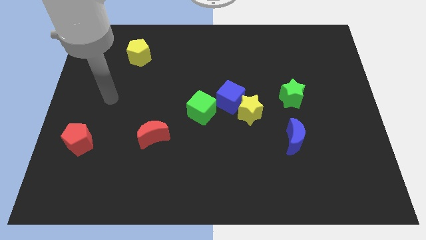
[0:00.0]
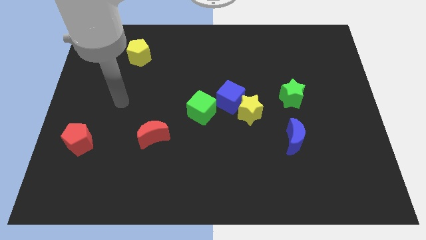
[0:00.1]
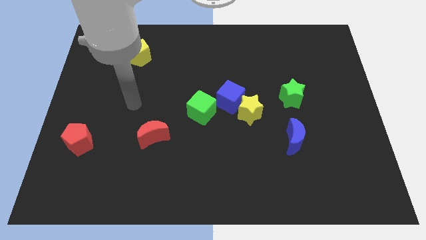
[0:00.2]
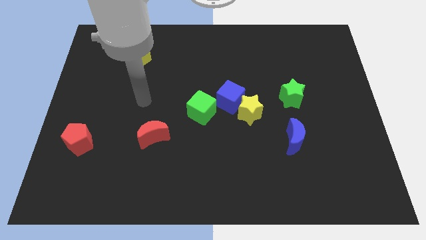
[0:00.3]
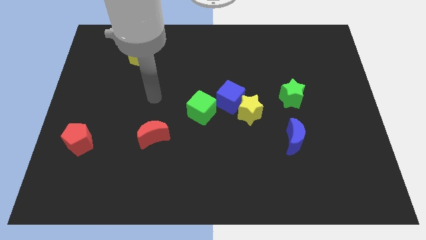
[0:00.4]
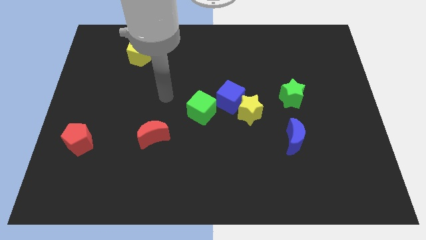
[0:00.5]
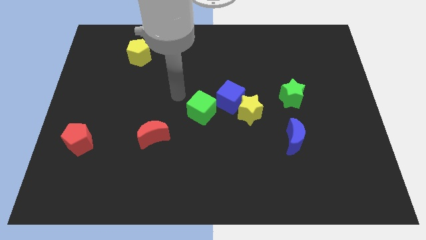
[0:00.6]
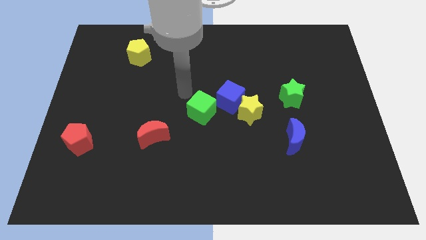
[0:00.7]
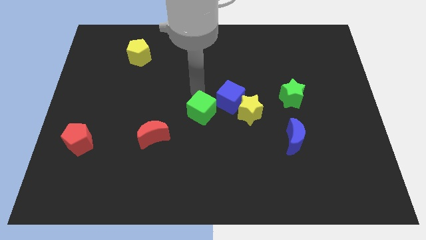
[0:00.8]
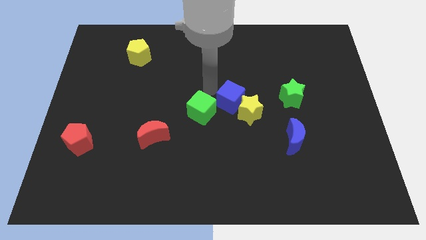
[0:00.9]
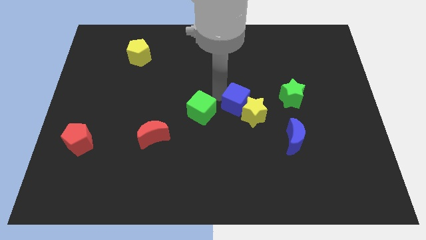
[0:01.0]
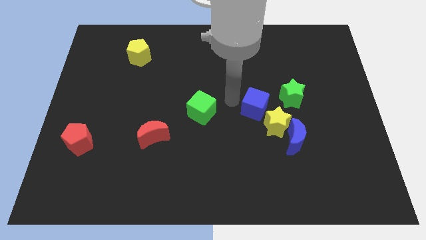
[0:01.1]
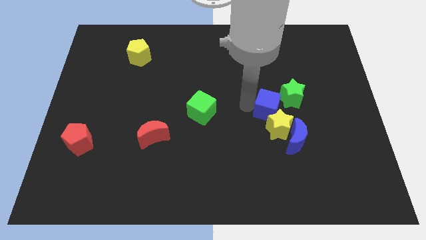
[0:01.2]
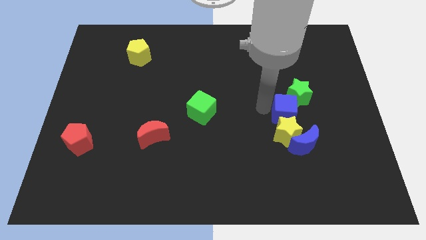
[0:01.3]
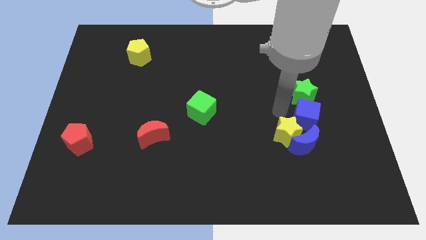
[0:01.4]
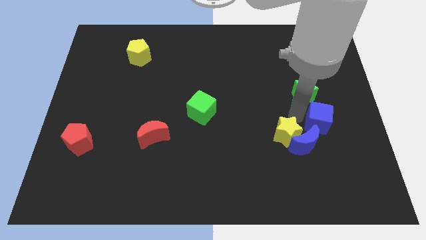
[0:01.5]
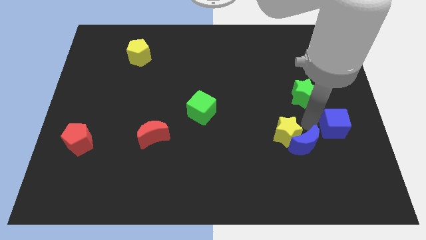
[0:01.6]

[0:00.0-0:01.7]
move the yellow star away from the blue cube

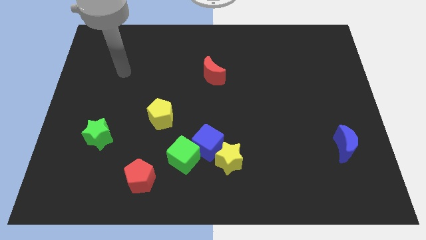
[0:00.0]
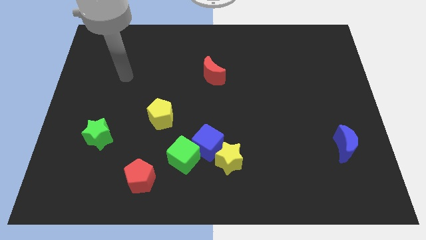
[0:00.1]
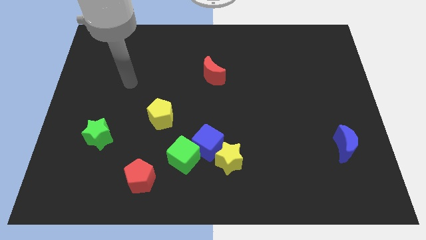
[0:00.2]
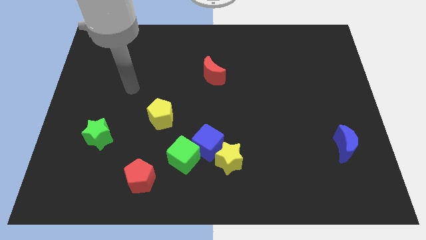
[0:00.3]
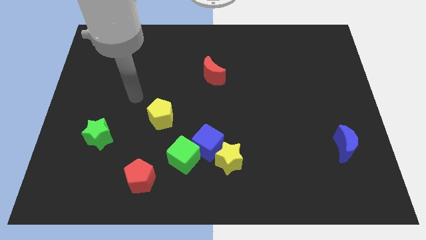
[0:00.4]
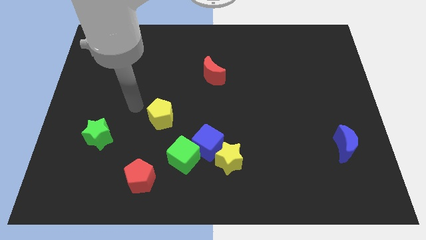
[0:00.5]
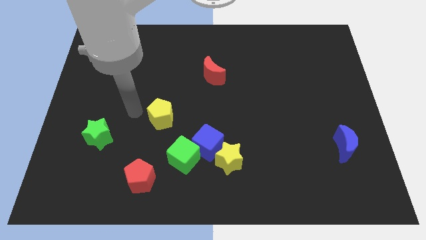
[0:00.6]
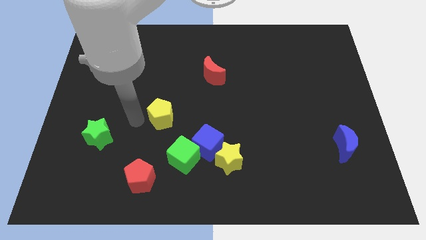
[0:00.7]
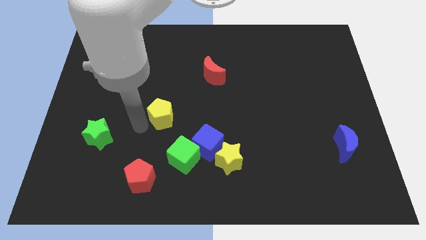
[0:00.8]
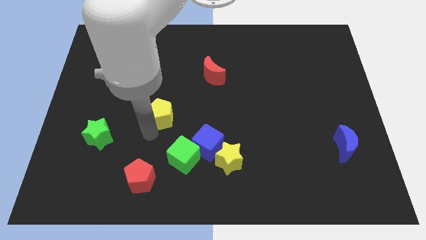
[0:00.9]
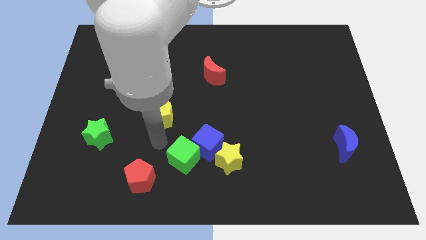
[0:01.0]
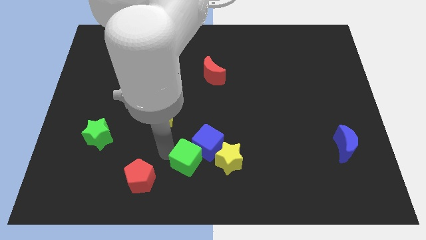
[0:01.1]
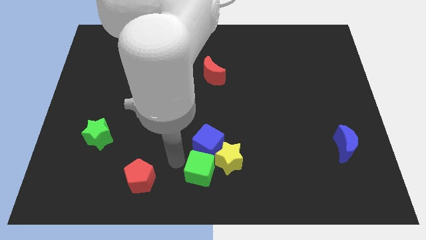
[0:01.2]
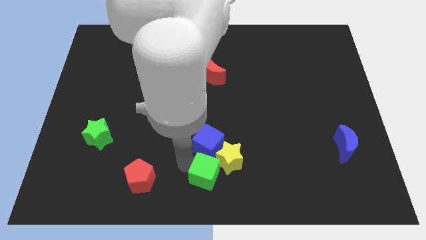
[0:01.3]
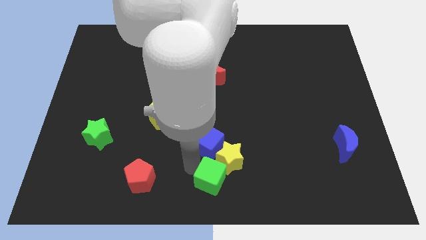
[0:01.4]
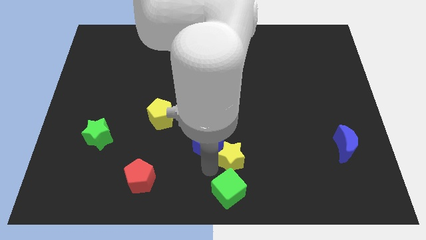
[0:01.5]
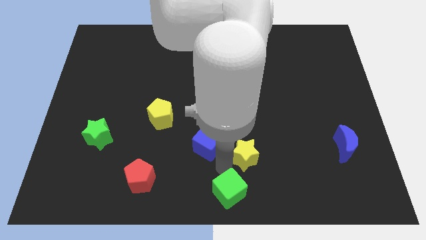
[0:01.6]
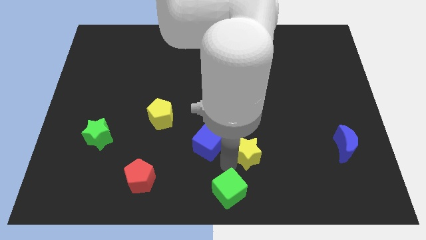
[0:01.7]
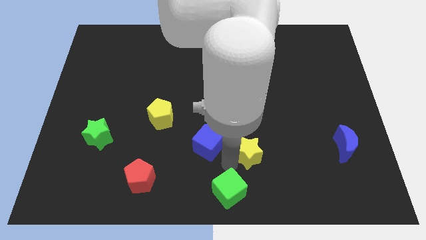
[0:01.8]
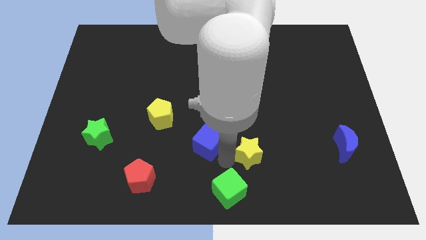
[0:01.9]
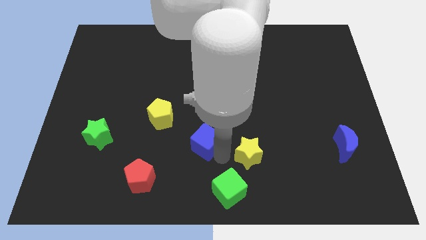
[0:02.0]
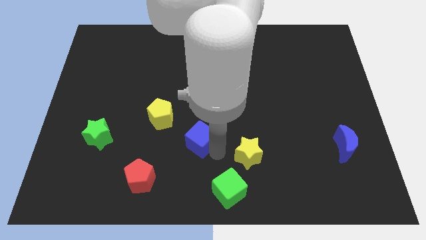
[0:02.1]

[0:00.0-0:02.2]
separate the blue cube from the yellow star and green cube

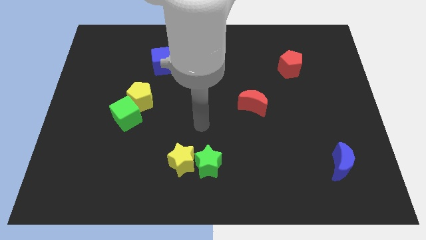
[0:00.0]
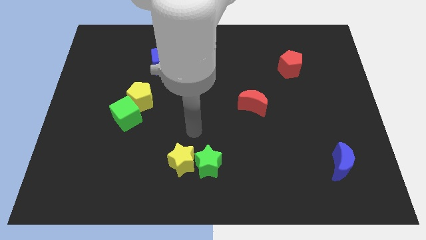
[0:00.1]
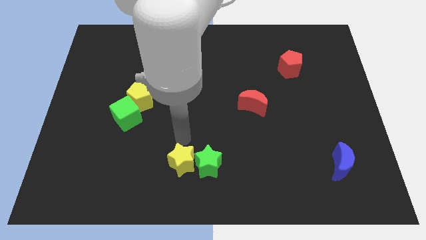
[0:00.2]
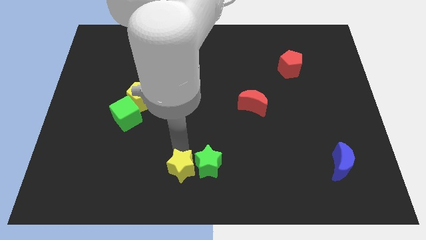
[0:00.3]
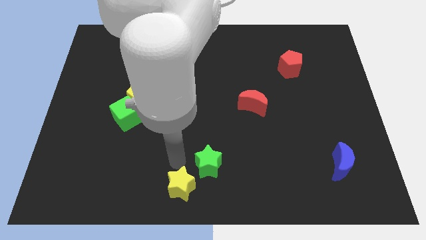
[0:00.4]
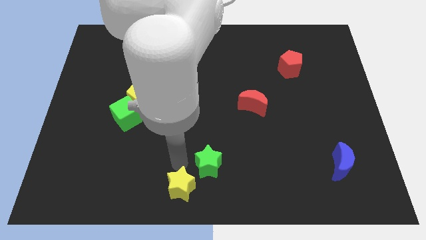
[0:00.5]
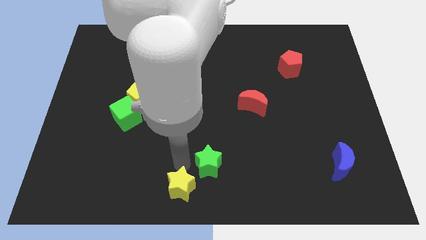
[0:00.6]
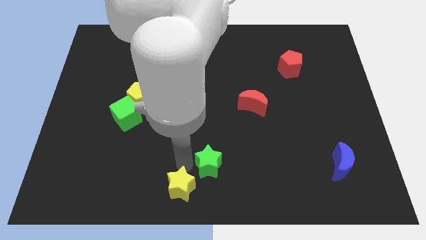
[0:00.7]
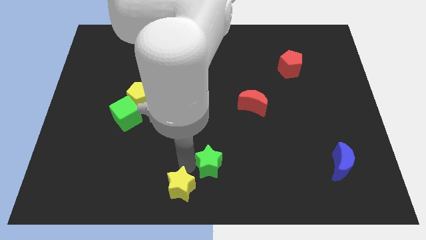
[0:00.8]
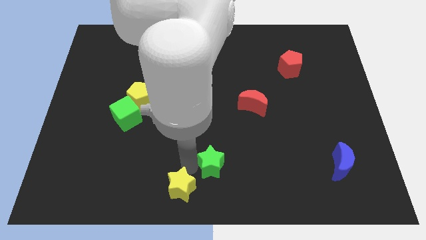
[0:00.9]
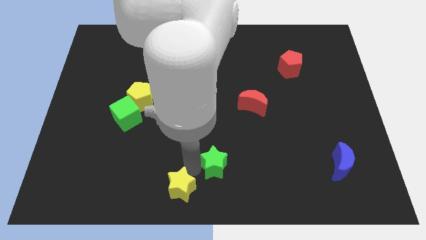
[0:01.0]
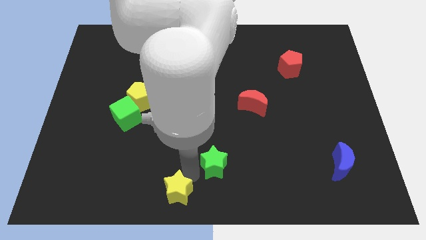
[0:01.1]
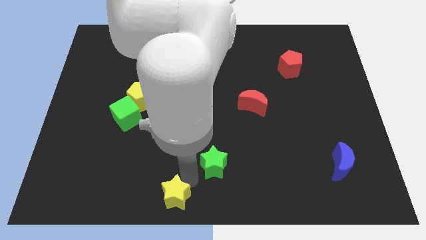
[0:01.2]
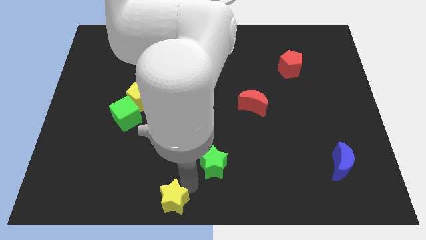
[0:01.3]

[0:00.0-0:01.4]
move the green star away from the yellow star

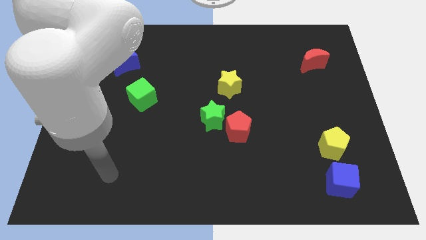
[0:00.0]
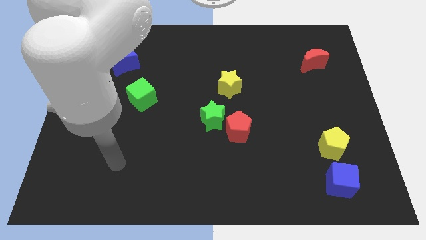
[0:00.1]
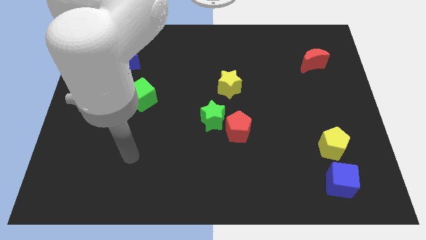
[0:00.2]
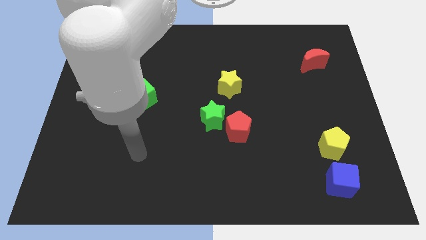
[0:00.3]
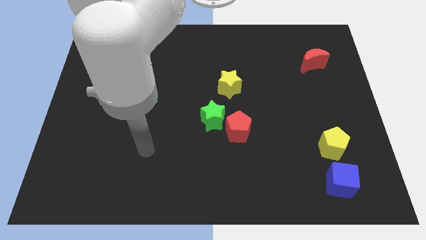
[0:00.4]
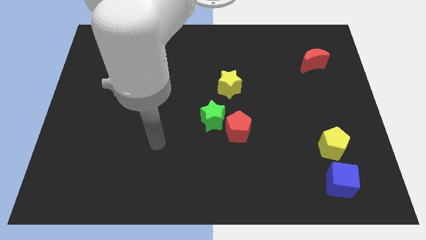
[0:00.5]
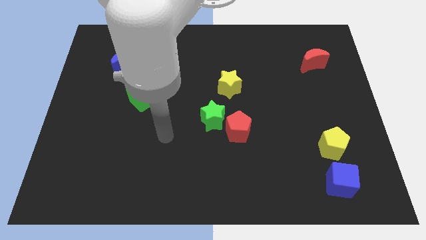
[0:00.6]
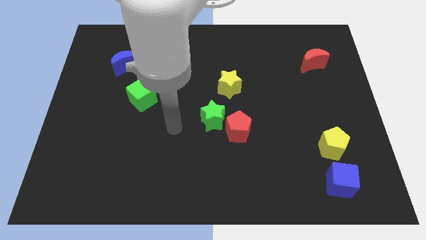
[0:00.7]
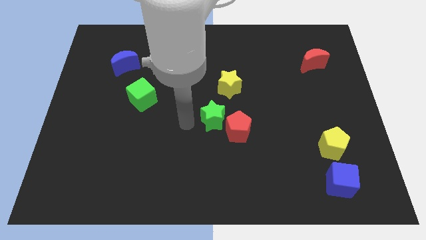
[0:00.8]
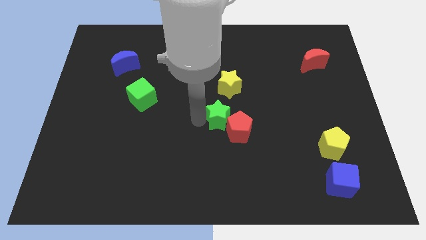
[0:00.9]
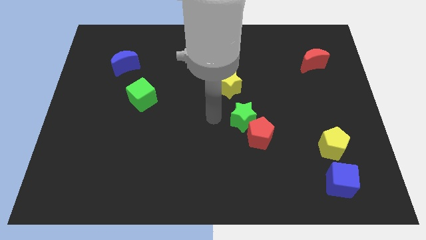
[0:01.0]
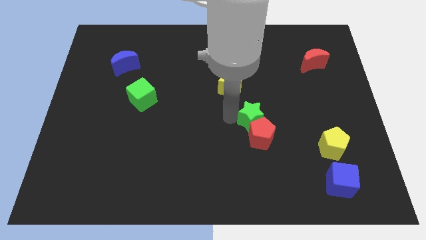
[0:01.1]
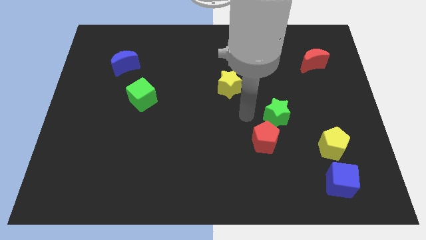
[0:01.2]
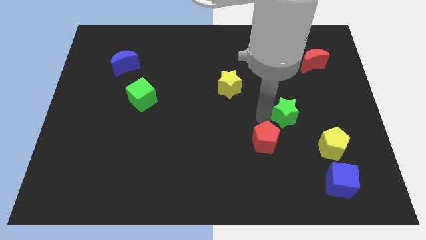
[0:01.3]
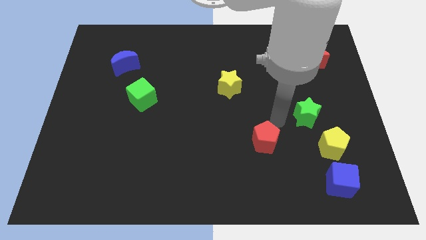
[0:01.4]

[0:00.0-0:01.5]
separate the red pentagon from the green star

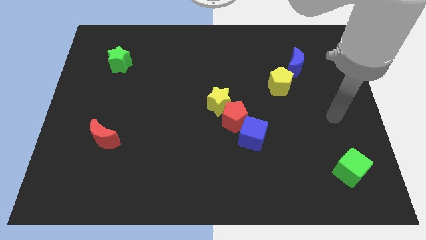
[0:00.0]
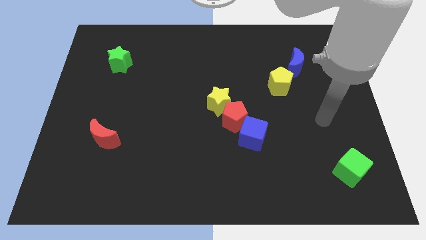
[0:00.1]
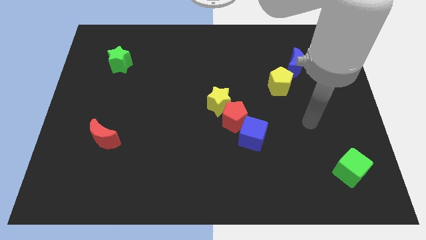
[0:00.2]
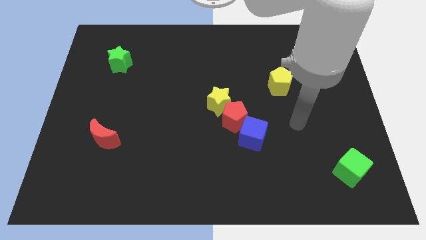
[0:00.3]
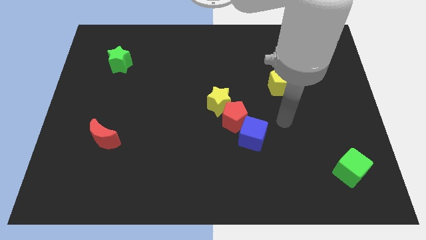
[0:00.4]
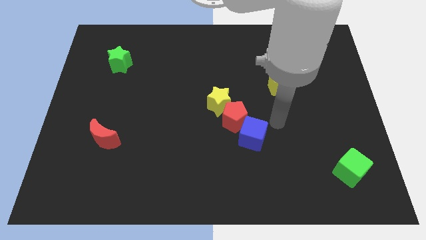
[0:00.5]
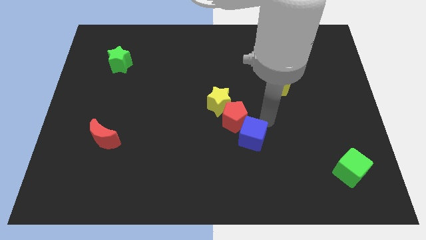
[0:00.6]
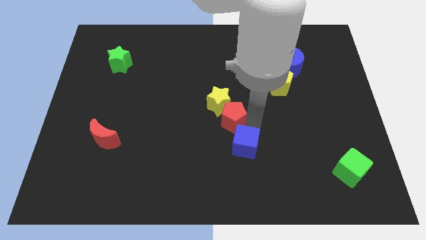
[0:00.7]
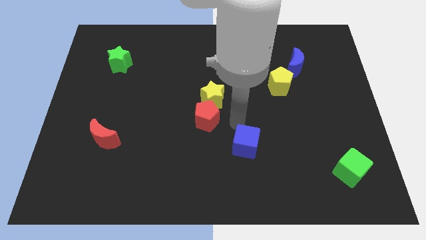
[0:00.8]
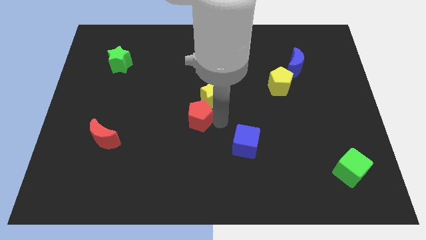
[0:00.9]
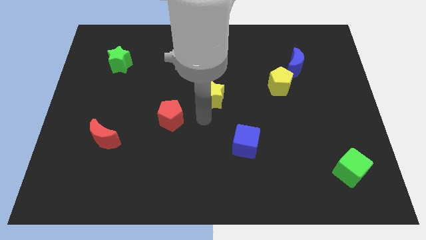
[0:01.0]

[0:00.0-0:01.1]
move the yellow star away from the red pentagon

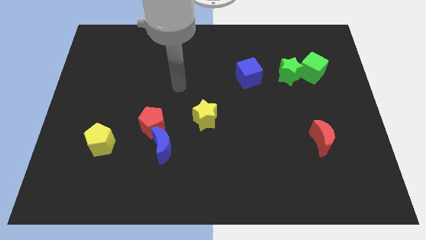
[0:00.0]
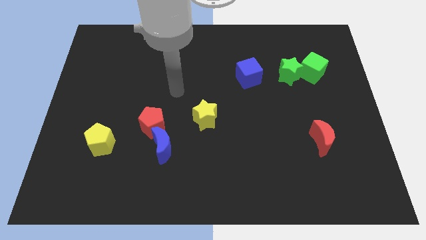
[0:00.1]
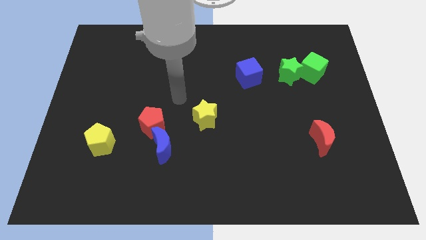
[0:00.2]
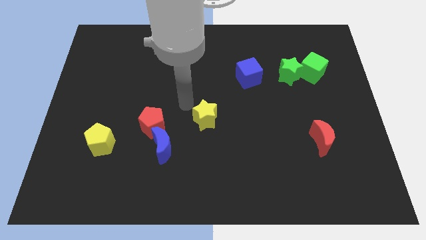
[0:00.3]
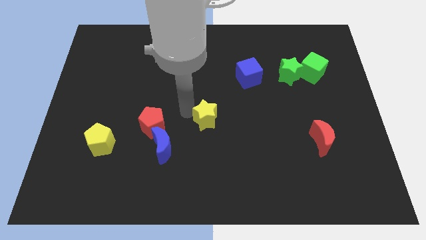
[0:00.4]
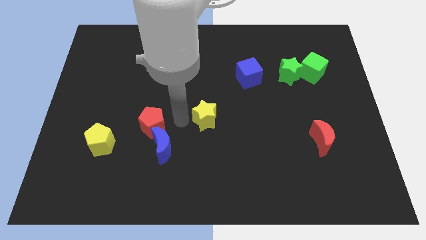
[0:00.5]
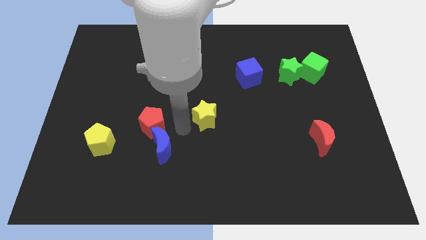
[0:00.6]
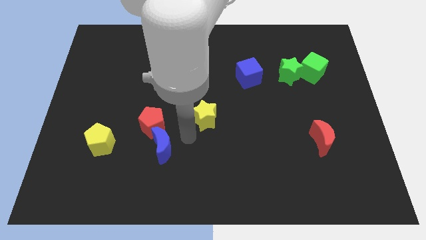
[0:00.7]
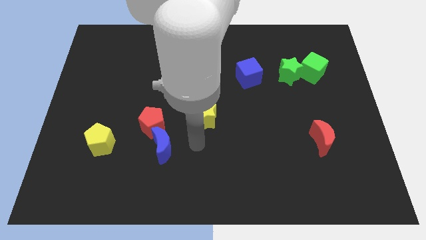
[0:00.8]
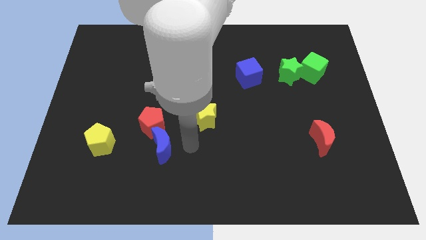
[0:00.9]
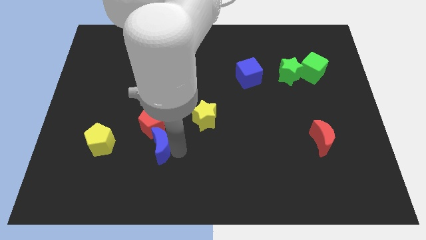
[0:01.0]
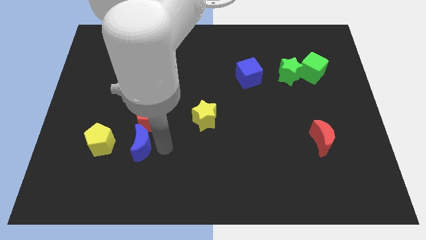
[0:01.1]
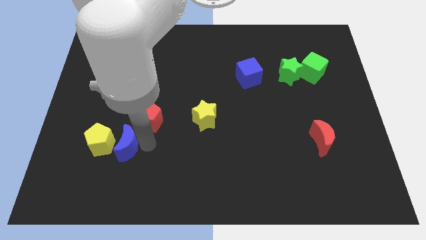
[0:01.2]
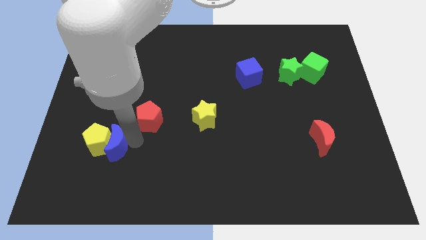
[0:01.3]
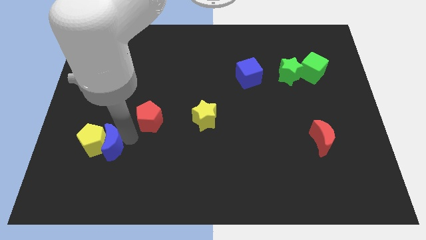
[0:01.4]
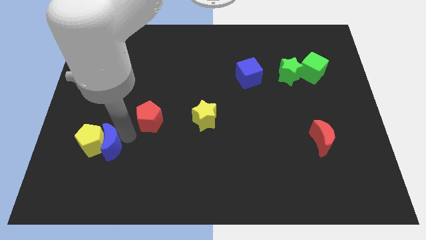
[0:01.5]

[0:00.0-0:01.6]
pull the red pentagon apart from the blue moon
